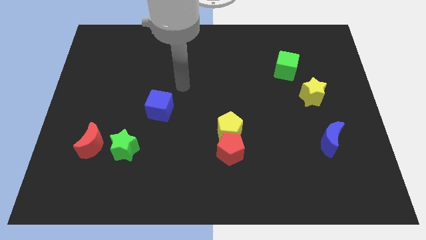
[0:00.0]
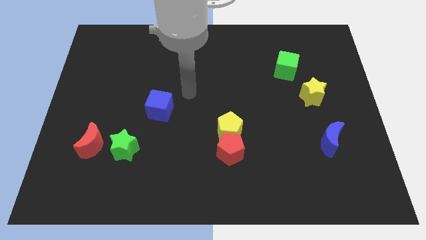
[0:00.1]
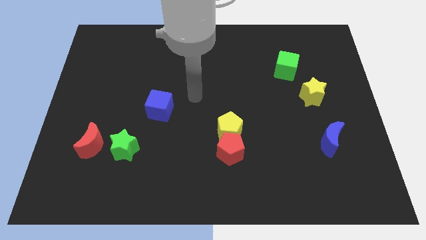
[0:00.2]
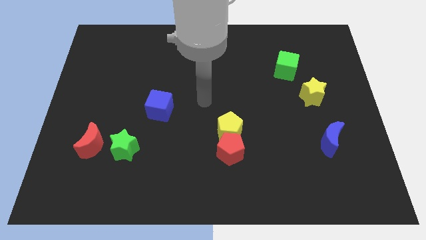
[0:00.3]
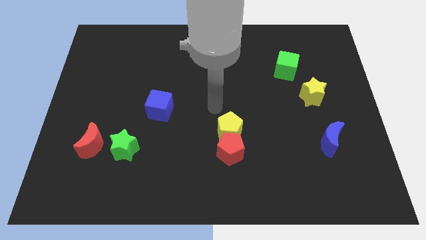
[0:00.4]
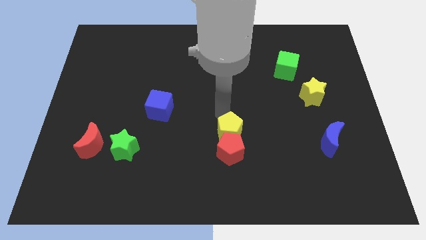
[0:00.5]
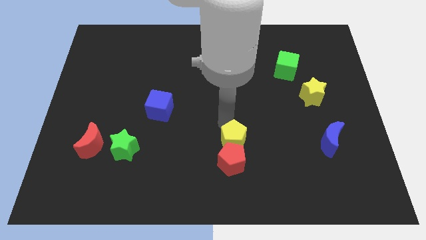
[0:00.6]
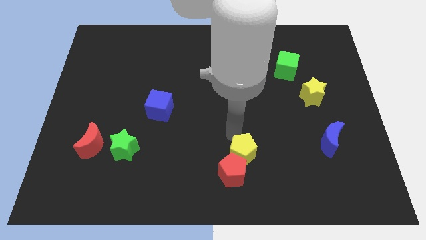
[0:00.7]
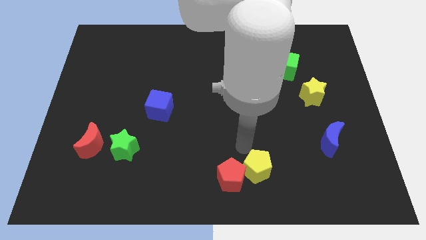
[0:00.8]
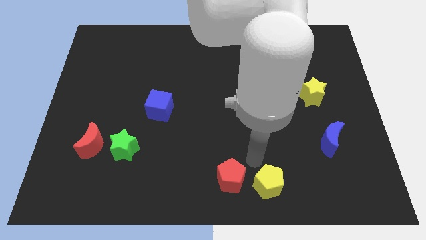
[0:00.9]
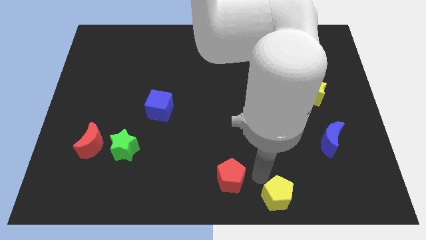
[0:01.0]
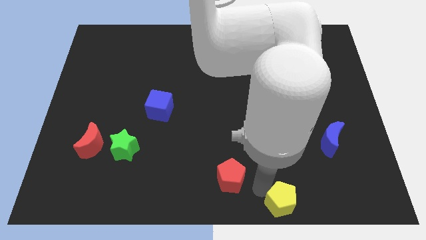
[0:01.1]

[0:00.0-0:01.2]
move the red pentagon away from the yellow pentagon

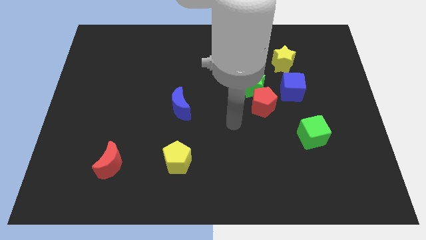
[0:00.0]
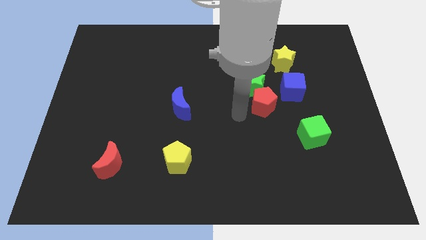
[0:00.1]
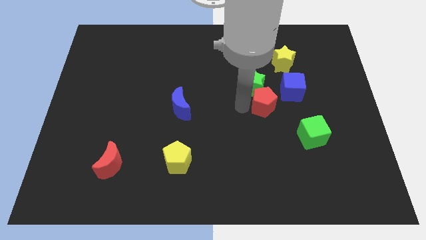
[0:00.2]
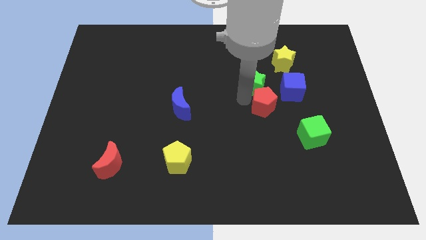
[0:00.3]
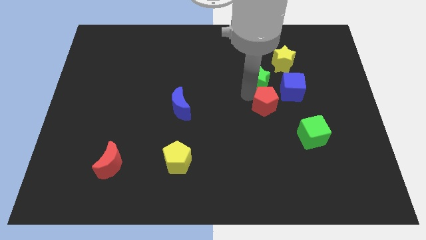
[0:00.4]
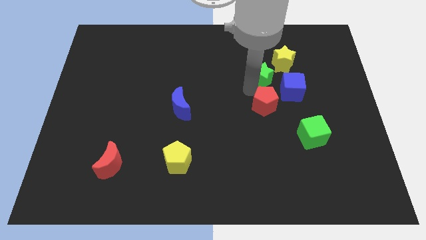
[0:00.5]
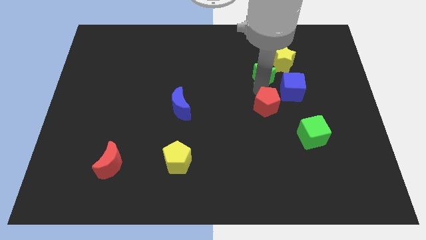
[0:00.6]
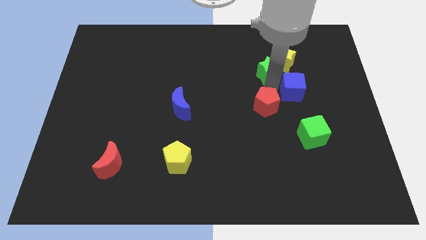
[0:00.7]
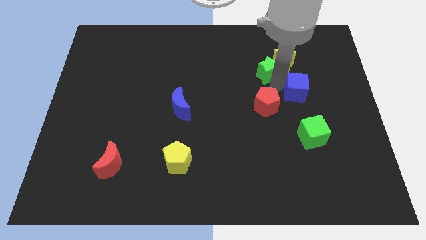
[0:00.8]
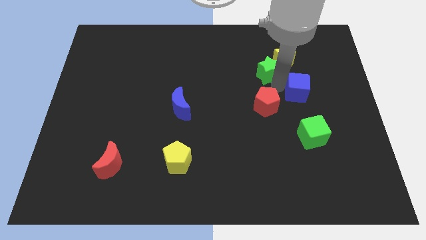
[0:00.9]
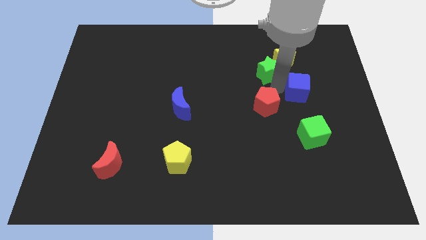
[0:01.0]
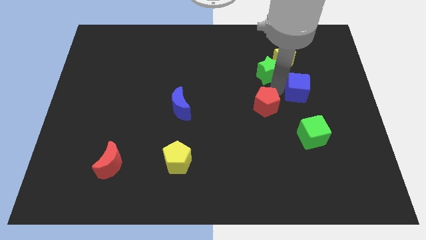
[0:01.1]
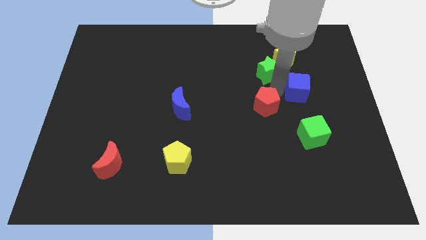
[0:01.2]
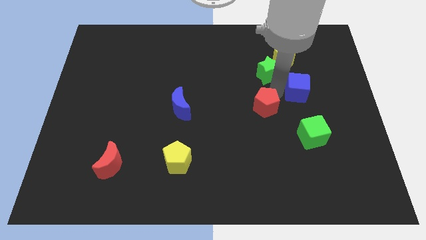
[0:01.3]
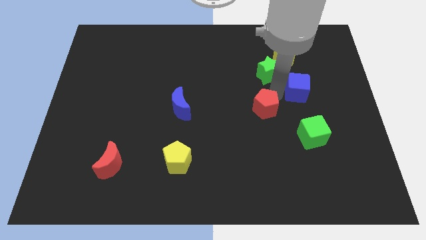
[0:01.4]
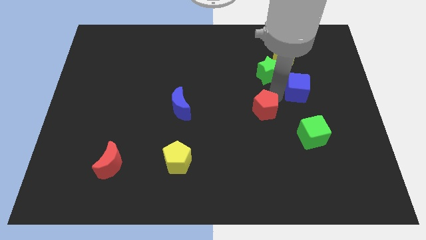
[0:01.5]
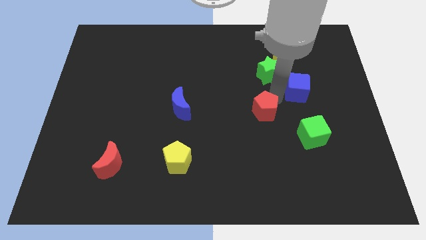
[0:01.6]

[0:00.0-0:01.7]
move the red pentagon away from the green star and blue cube

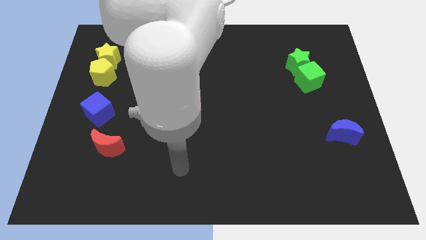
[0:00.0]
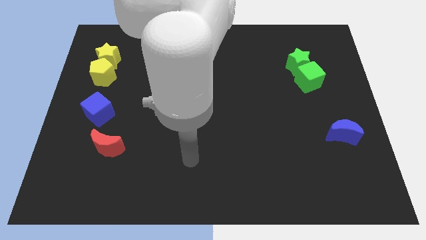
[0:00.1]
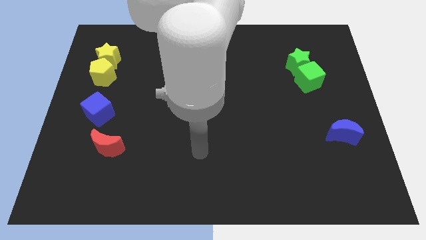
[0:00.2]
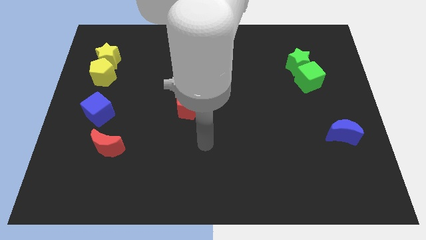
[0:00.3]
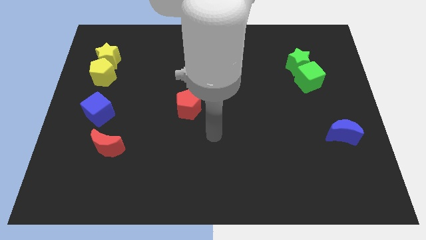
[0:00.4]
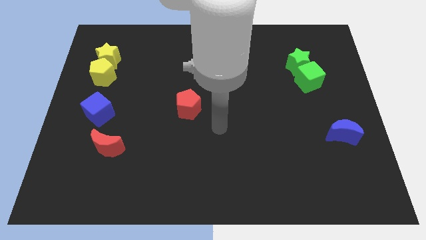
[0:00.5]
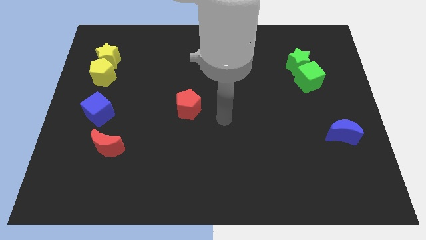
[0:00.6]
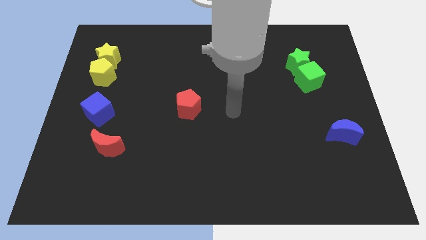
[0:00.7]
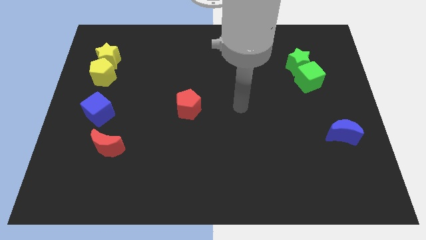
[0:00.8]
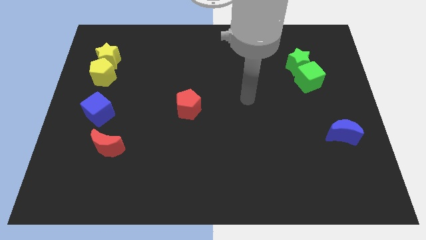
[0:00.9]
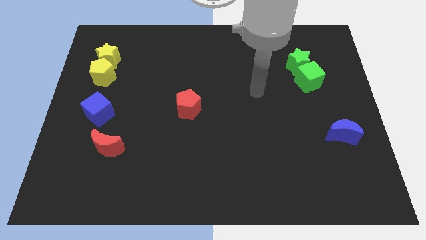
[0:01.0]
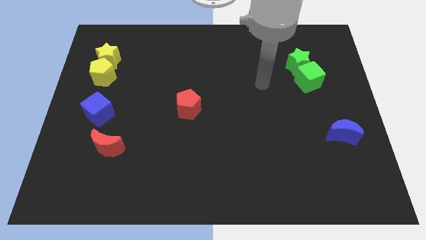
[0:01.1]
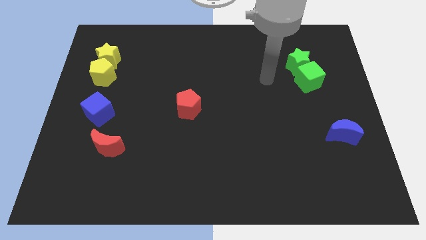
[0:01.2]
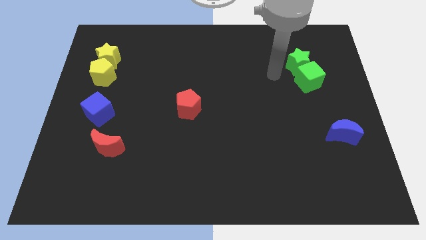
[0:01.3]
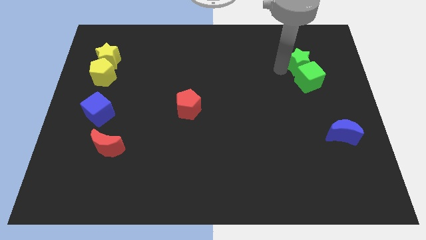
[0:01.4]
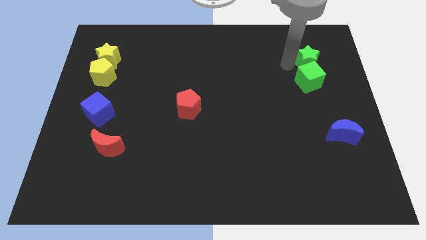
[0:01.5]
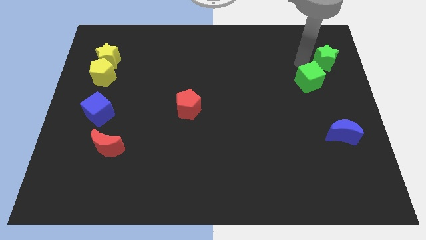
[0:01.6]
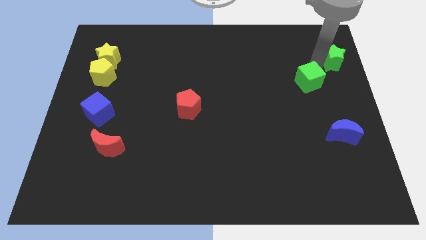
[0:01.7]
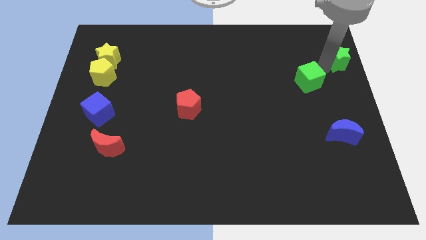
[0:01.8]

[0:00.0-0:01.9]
pull the green cube apart from the green star

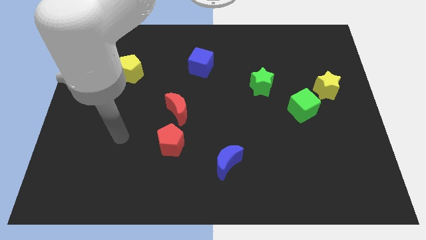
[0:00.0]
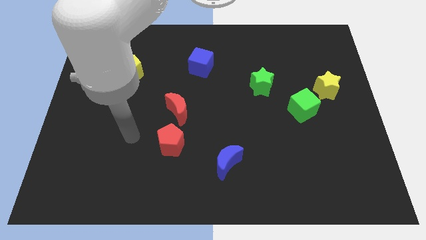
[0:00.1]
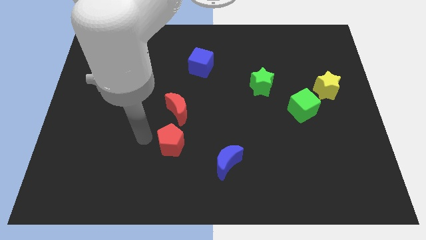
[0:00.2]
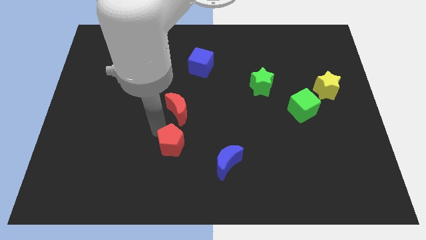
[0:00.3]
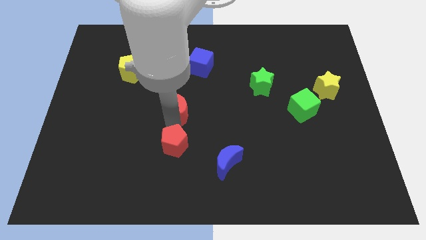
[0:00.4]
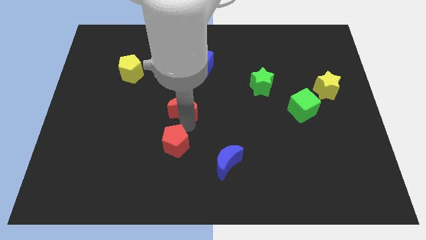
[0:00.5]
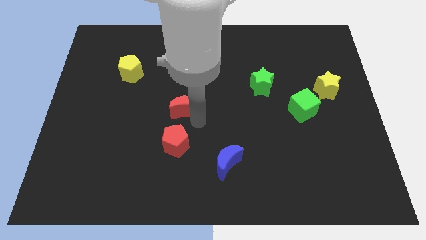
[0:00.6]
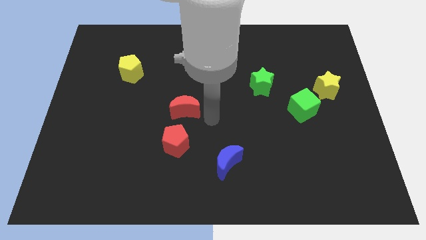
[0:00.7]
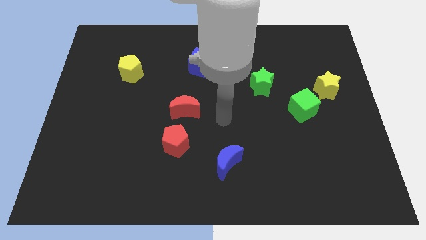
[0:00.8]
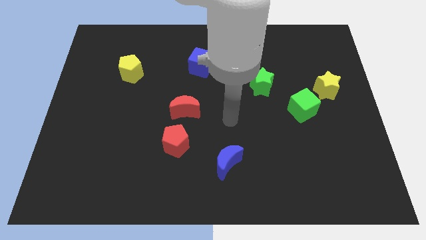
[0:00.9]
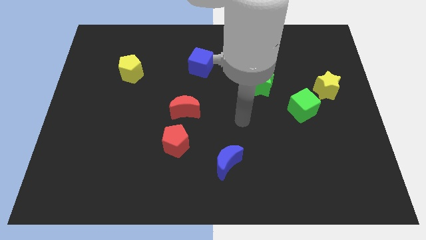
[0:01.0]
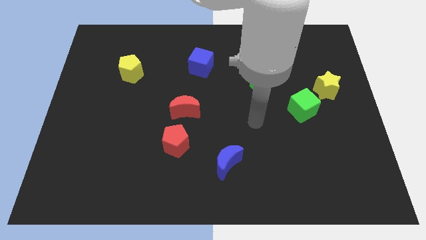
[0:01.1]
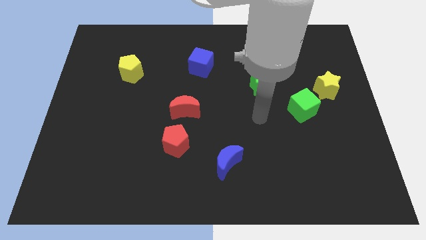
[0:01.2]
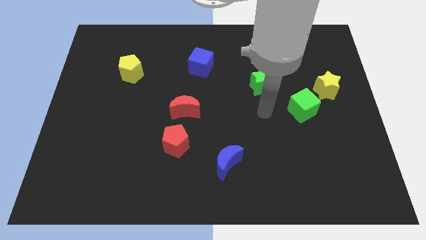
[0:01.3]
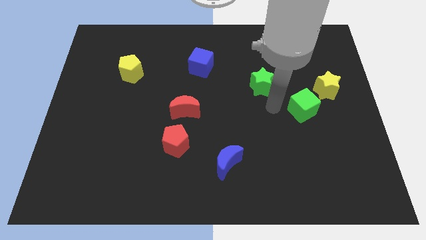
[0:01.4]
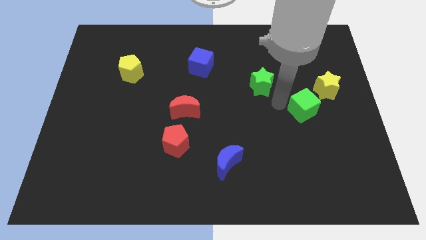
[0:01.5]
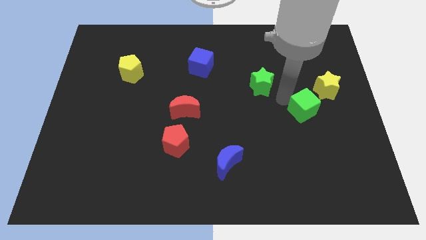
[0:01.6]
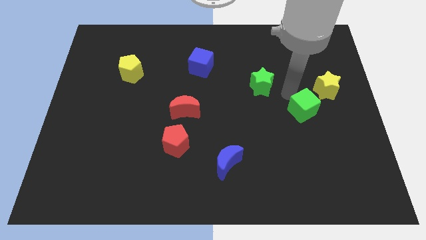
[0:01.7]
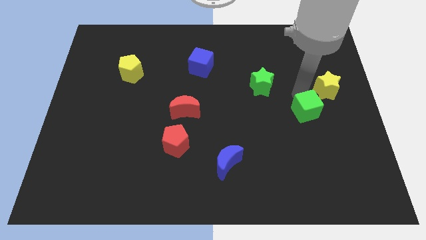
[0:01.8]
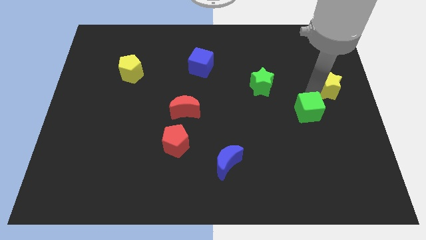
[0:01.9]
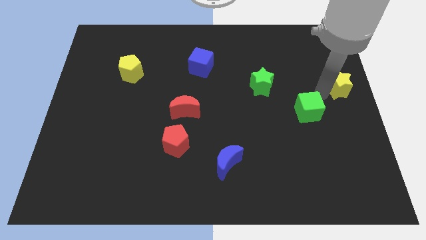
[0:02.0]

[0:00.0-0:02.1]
pull the green cube apart from the yellow star

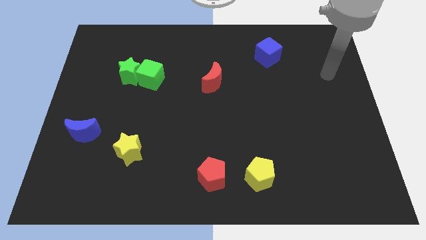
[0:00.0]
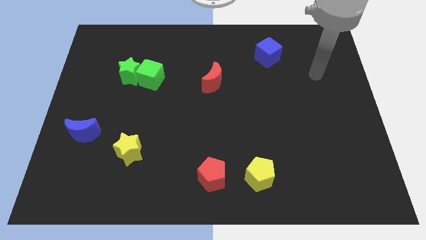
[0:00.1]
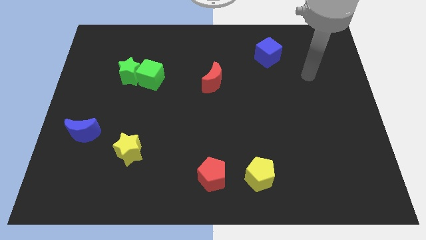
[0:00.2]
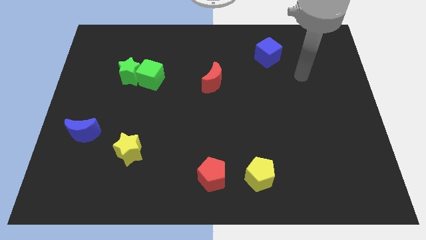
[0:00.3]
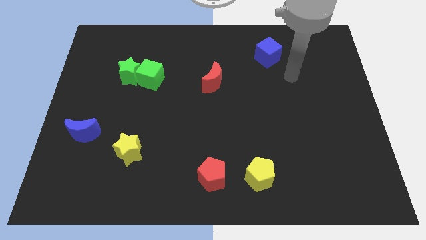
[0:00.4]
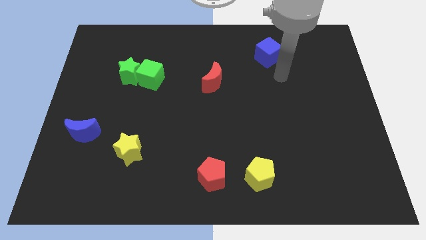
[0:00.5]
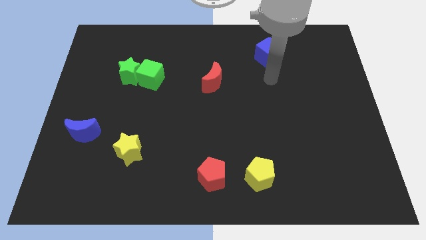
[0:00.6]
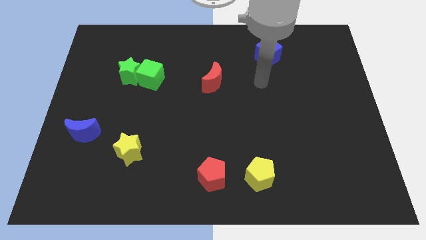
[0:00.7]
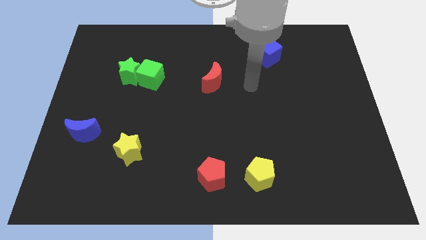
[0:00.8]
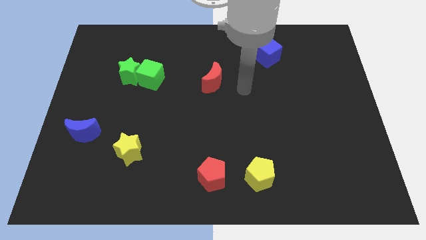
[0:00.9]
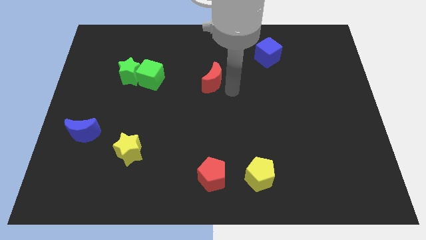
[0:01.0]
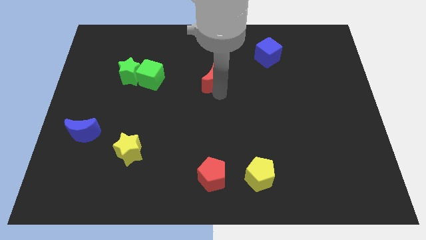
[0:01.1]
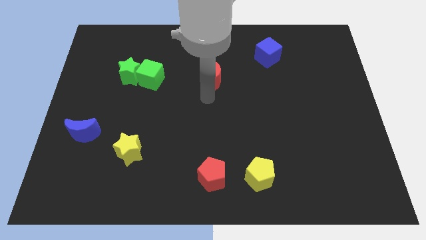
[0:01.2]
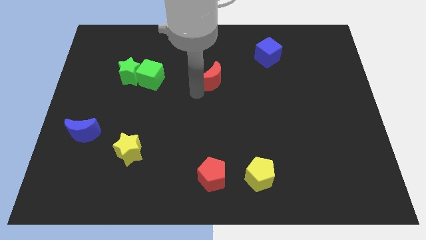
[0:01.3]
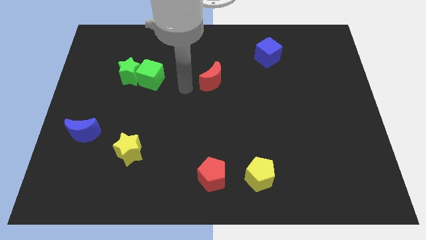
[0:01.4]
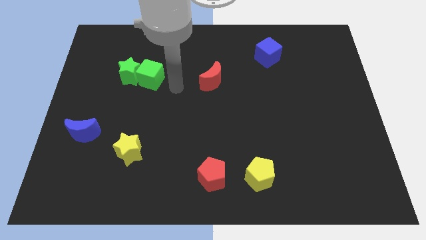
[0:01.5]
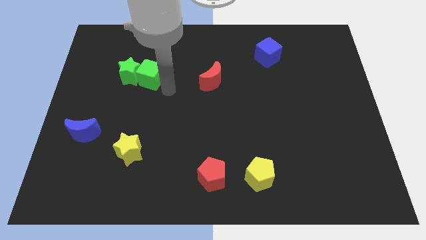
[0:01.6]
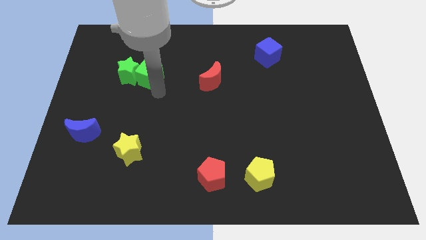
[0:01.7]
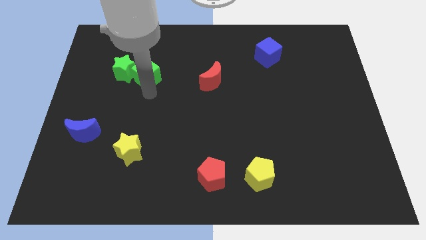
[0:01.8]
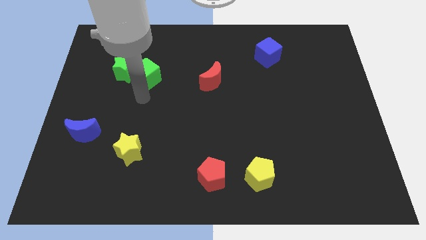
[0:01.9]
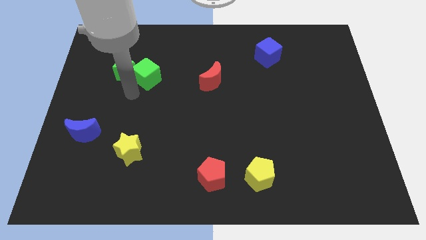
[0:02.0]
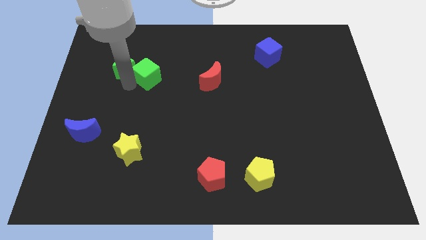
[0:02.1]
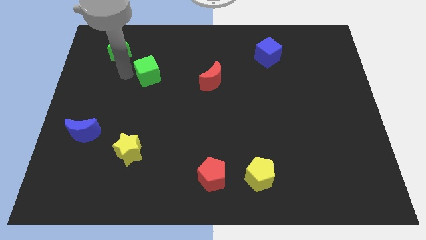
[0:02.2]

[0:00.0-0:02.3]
separate the green cube from the green star
